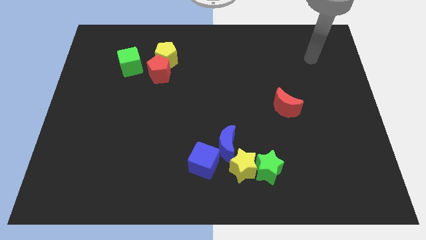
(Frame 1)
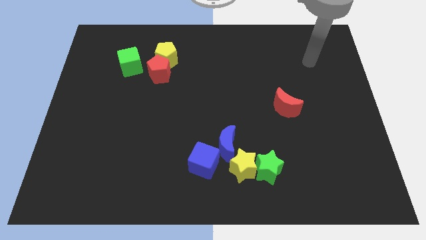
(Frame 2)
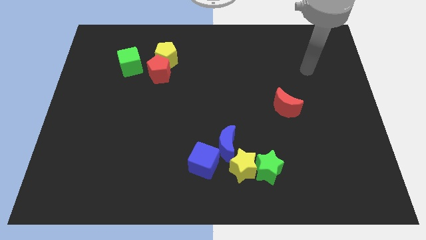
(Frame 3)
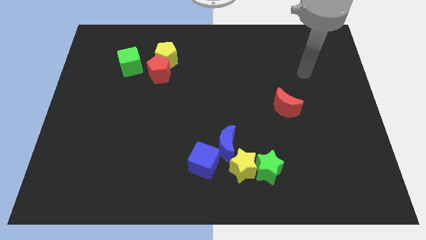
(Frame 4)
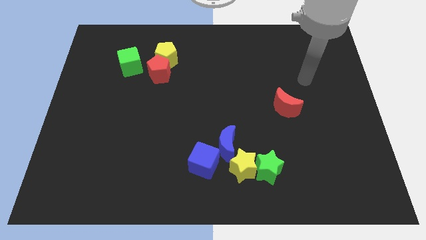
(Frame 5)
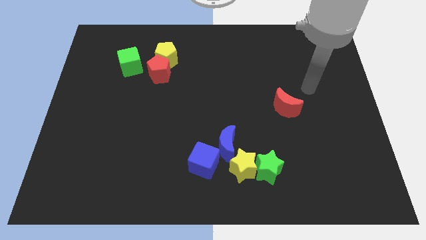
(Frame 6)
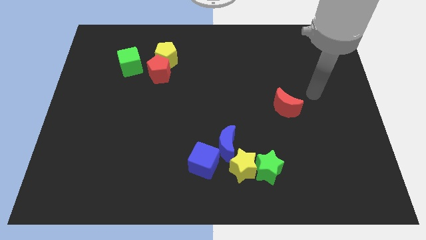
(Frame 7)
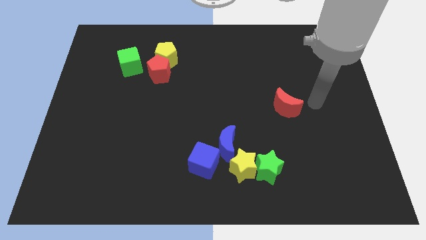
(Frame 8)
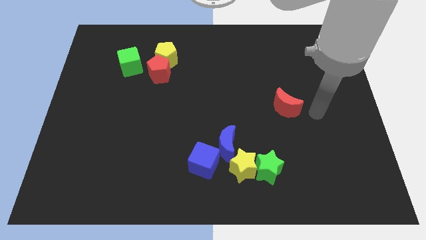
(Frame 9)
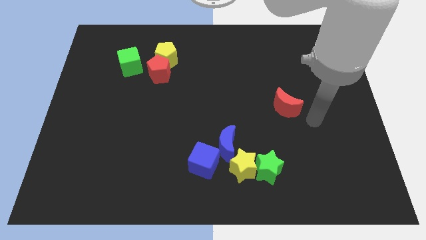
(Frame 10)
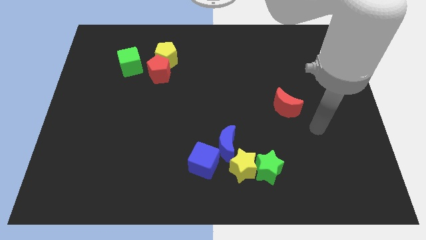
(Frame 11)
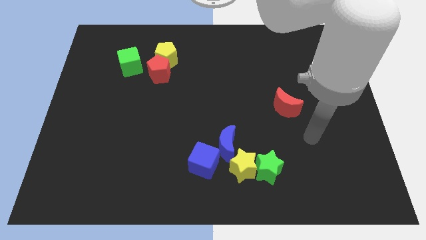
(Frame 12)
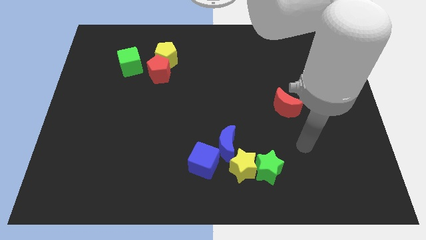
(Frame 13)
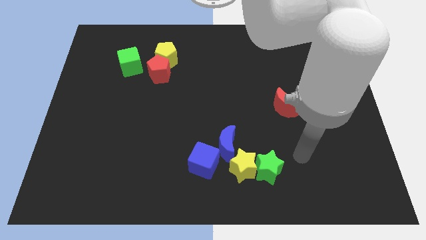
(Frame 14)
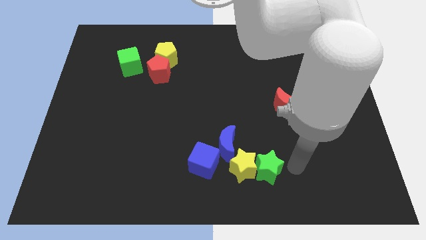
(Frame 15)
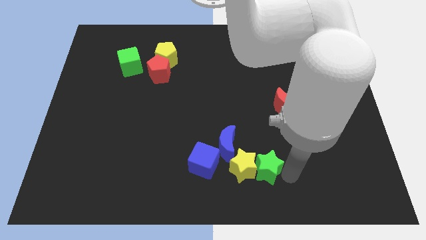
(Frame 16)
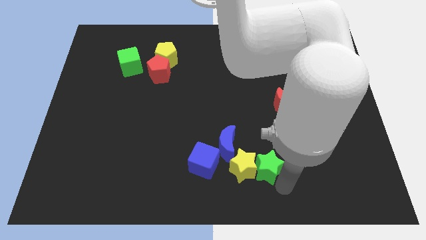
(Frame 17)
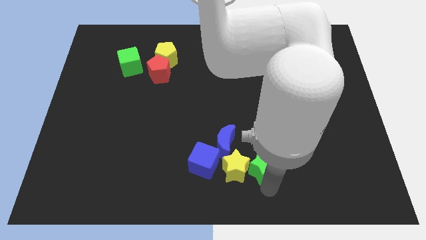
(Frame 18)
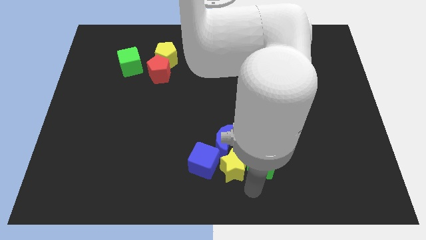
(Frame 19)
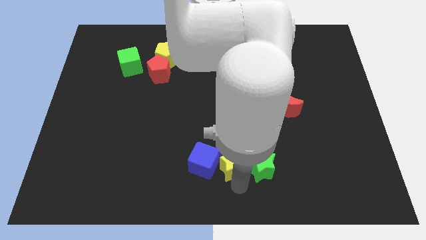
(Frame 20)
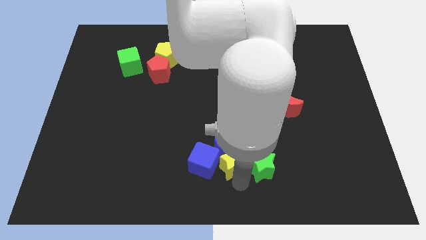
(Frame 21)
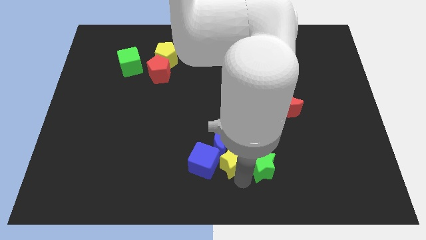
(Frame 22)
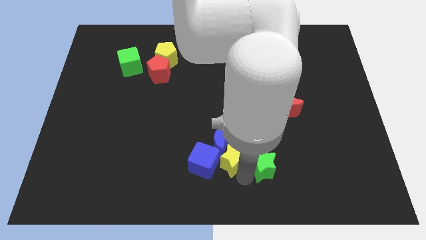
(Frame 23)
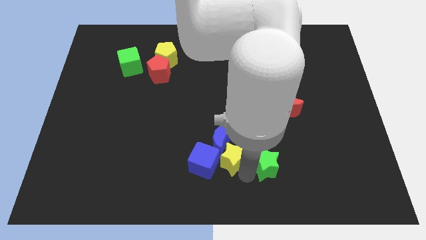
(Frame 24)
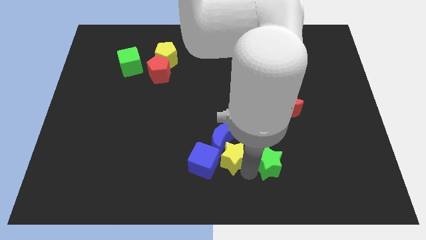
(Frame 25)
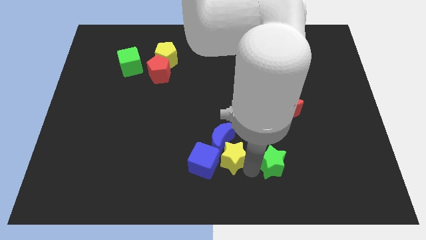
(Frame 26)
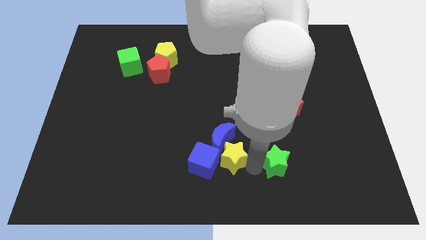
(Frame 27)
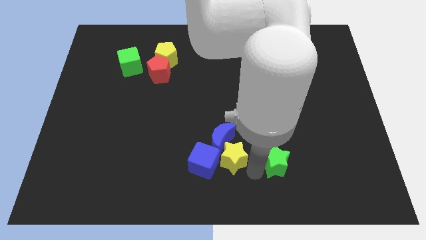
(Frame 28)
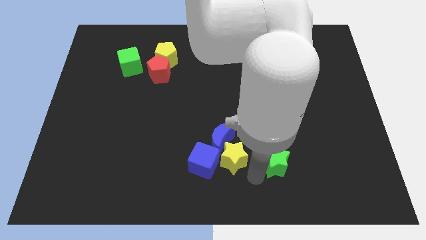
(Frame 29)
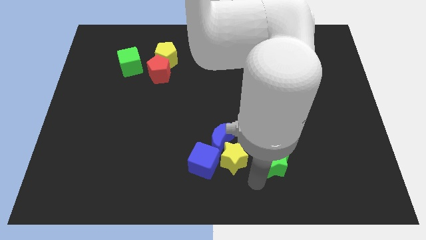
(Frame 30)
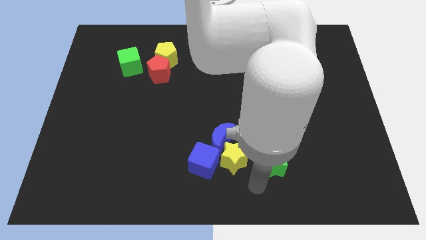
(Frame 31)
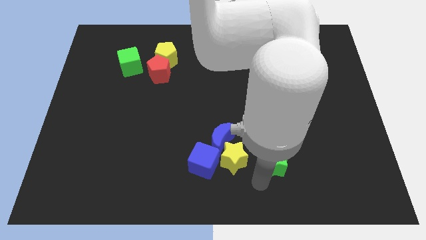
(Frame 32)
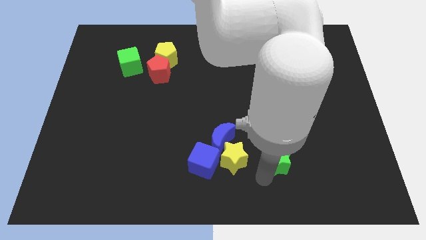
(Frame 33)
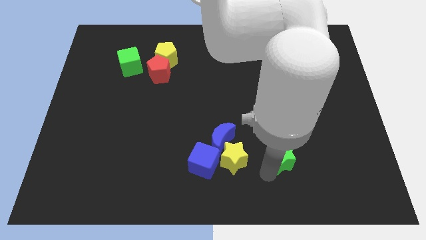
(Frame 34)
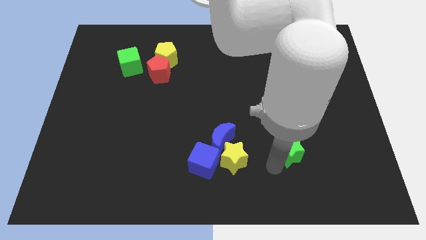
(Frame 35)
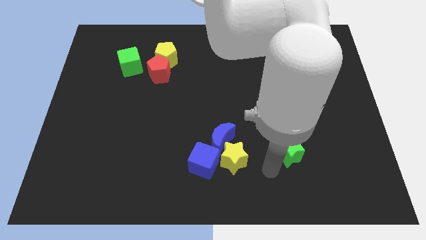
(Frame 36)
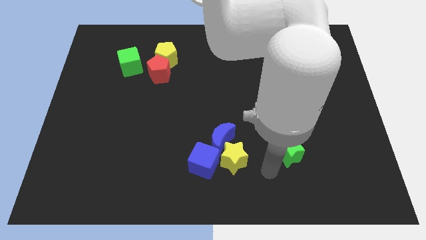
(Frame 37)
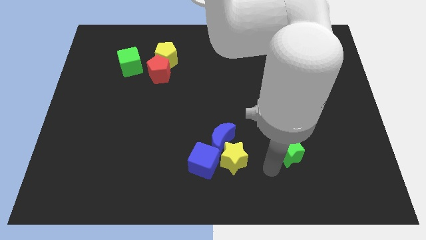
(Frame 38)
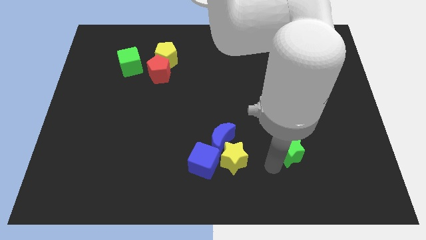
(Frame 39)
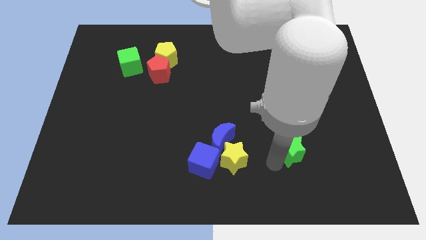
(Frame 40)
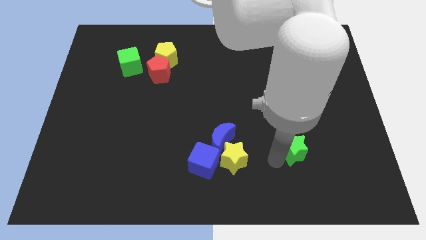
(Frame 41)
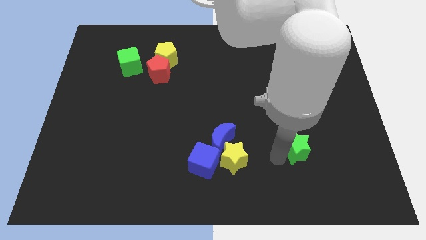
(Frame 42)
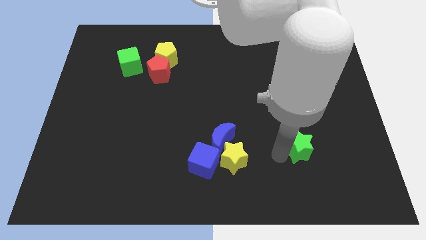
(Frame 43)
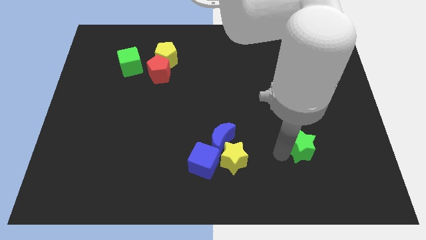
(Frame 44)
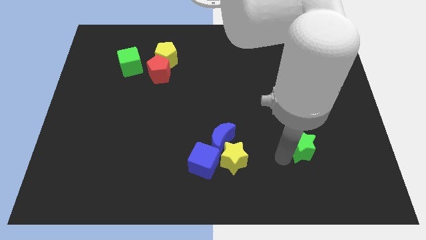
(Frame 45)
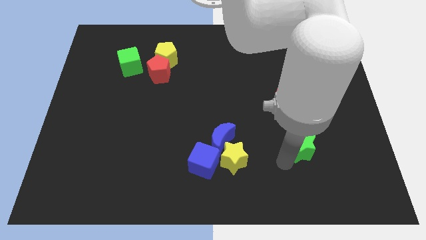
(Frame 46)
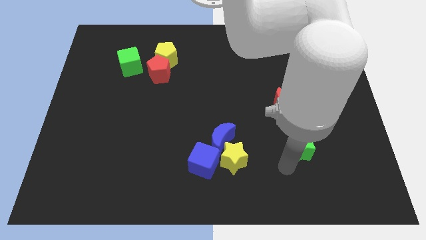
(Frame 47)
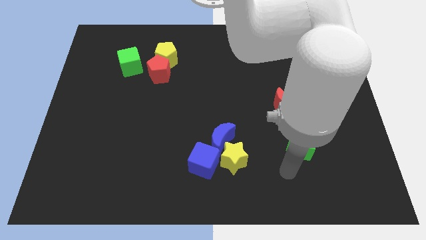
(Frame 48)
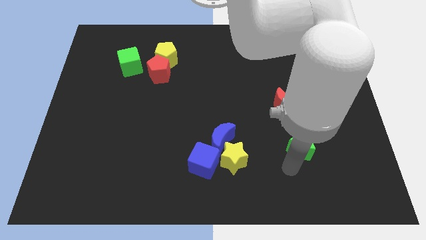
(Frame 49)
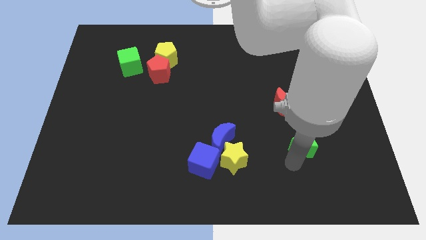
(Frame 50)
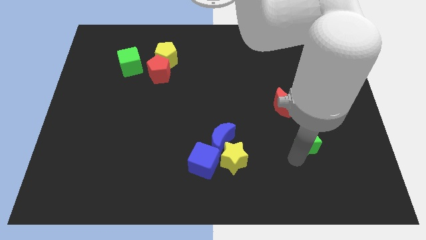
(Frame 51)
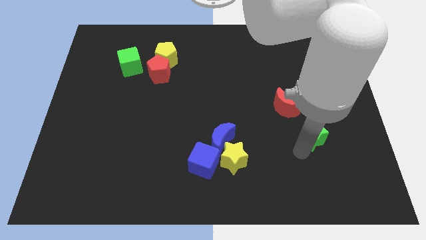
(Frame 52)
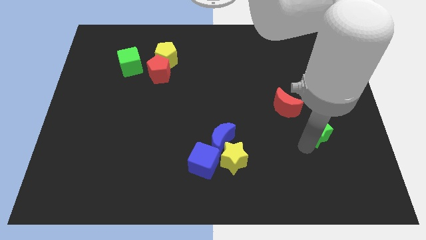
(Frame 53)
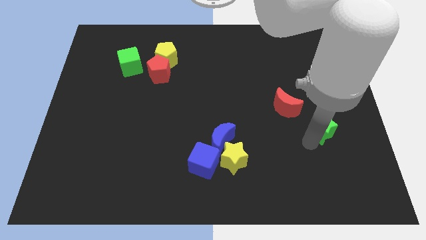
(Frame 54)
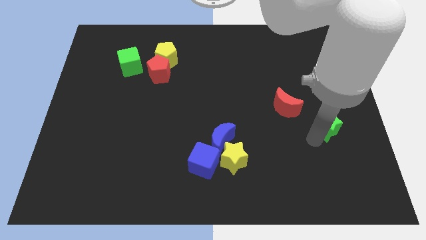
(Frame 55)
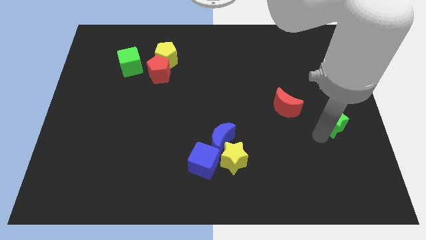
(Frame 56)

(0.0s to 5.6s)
move the green star to the right of the red moon

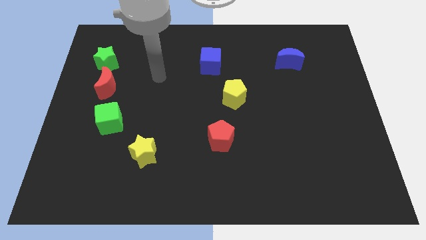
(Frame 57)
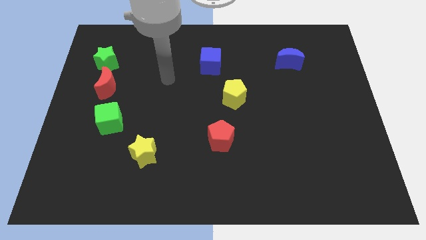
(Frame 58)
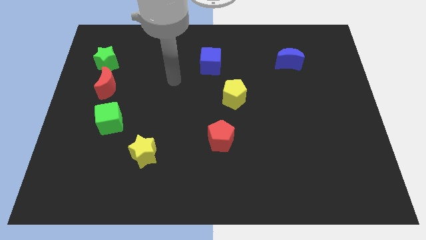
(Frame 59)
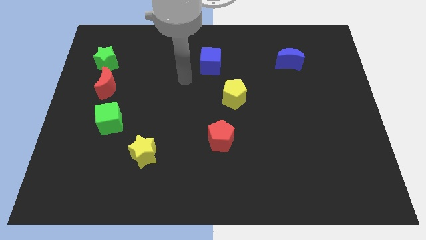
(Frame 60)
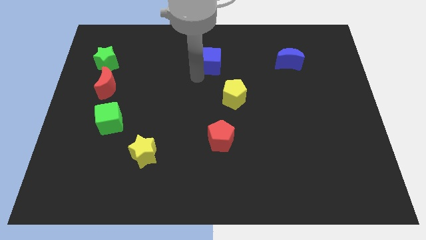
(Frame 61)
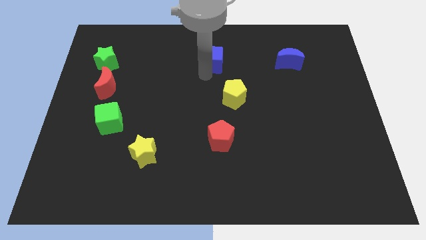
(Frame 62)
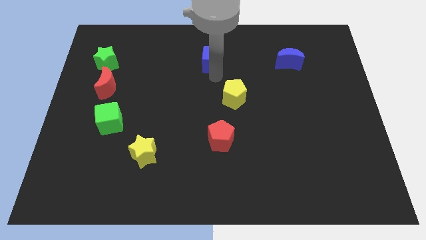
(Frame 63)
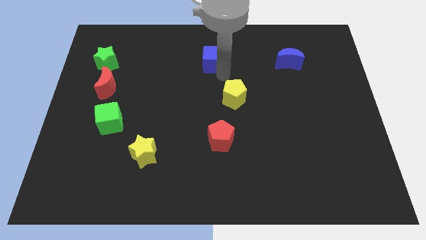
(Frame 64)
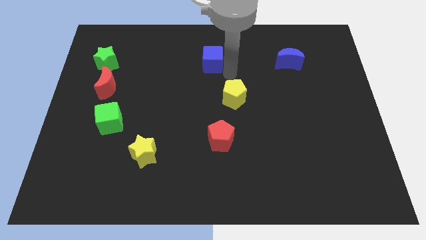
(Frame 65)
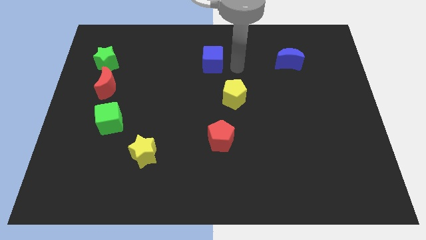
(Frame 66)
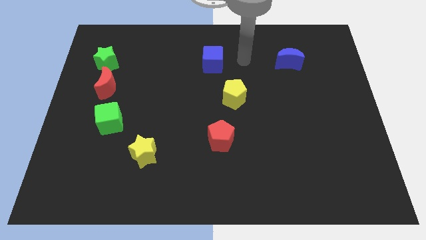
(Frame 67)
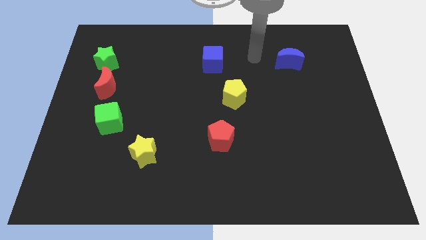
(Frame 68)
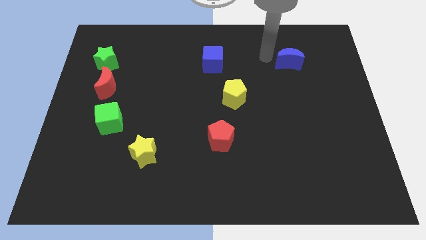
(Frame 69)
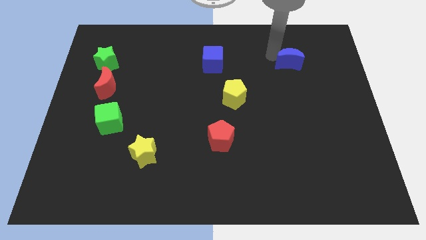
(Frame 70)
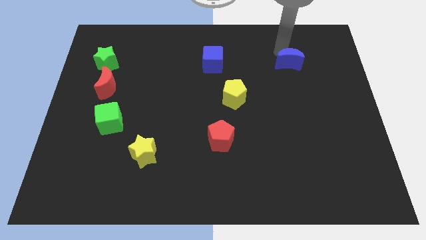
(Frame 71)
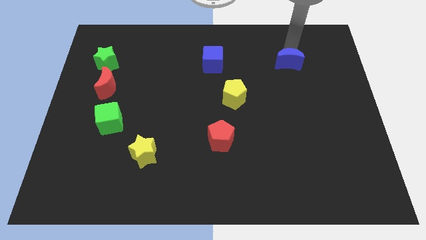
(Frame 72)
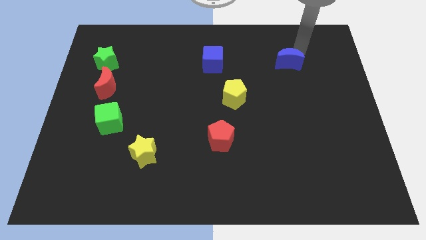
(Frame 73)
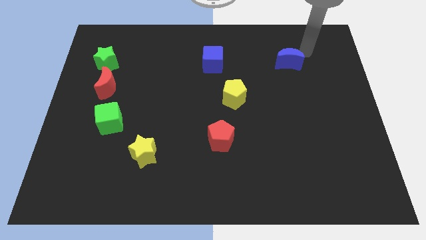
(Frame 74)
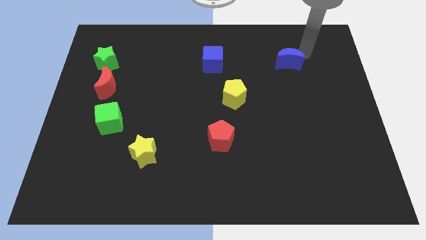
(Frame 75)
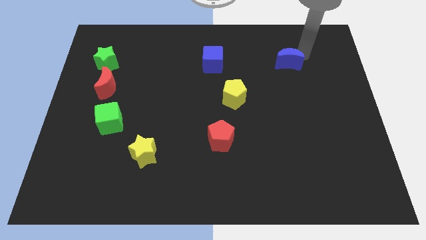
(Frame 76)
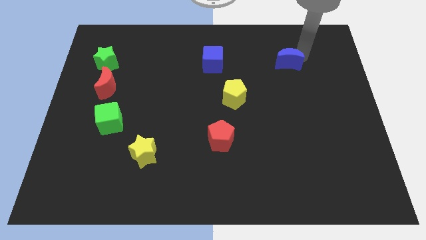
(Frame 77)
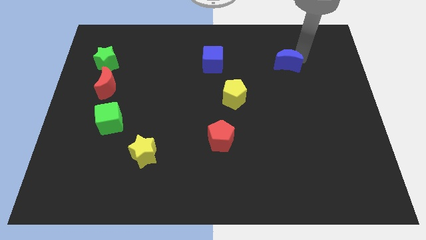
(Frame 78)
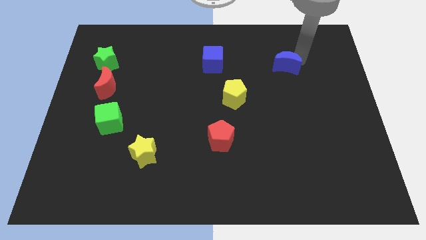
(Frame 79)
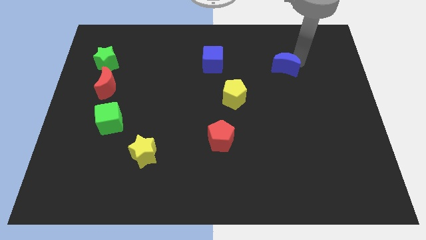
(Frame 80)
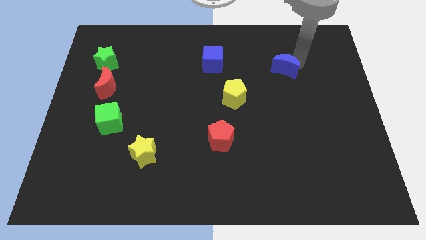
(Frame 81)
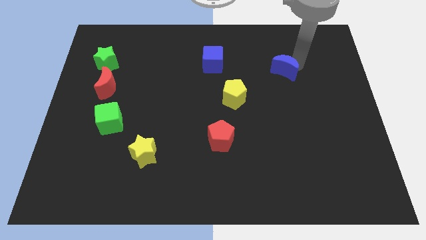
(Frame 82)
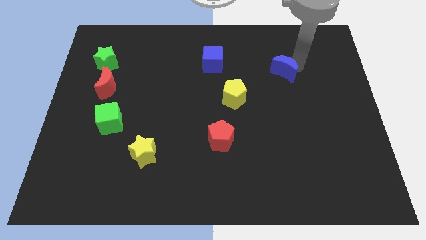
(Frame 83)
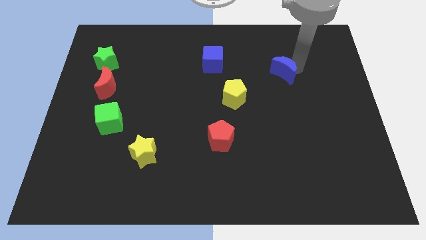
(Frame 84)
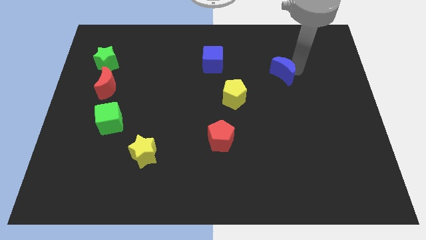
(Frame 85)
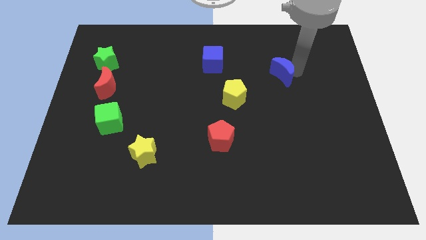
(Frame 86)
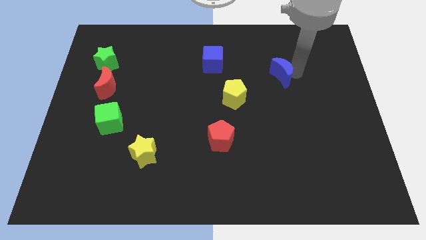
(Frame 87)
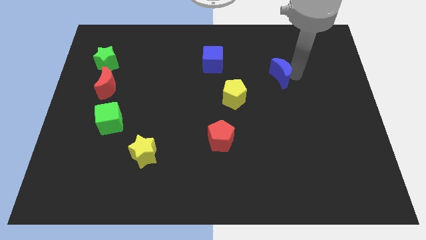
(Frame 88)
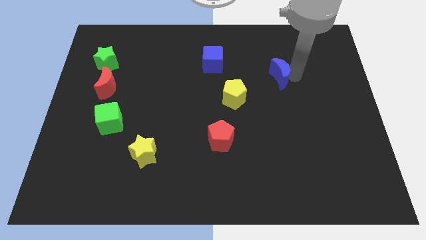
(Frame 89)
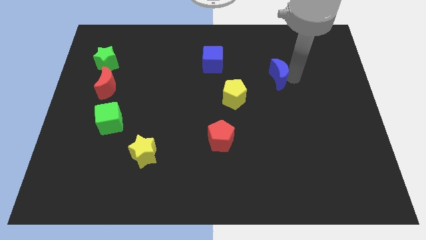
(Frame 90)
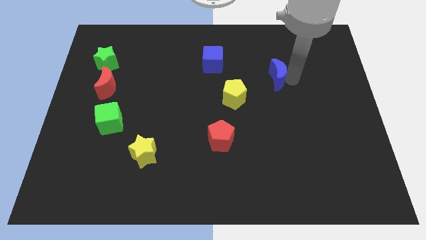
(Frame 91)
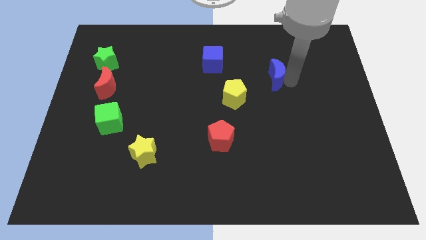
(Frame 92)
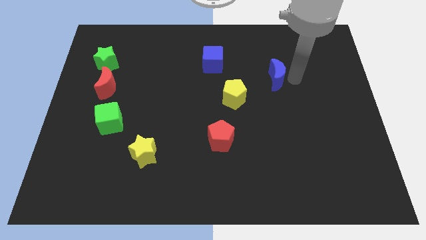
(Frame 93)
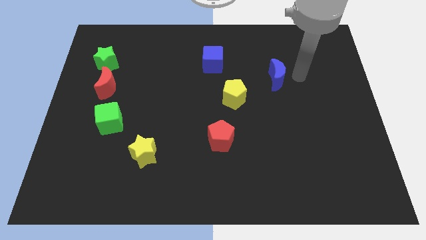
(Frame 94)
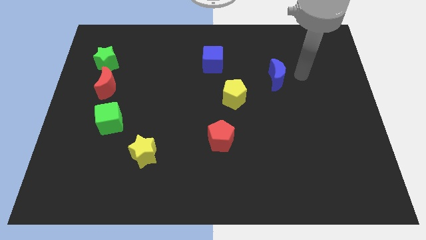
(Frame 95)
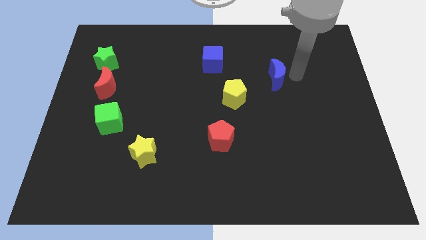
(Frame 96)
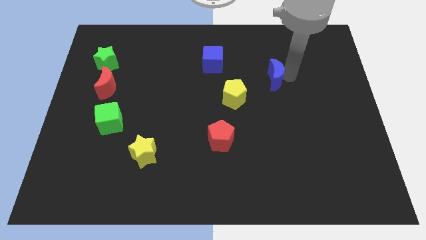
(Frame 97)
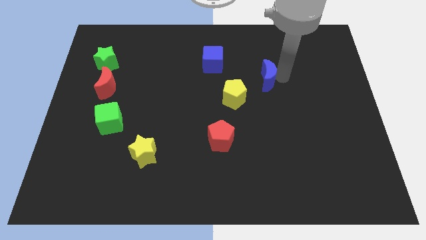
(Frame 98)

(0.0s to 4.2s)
move the blue moon to the top right side of the yellow pentagon
